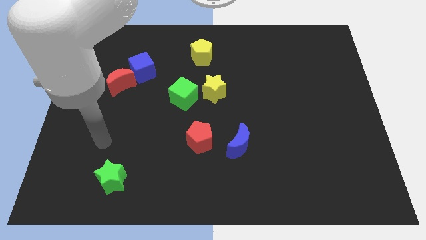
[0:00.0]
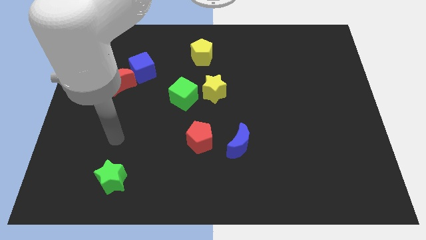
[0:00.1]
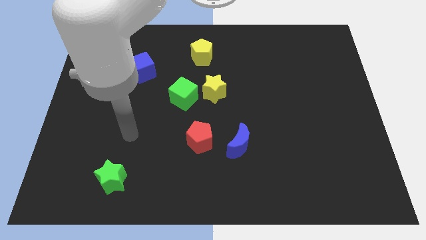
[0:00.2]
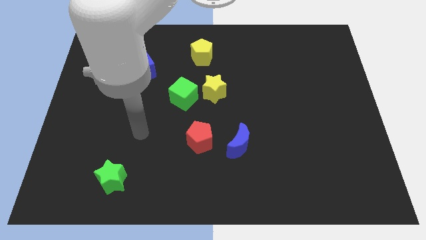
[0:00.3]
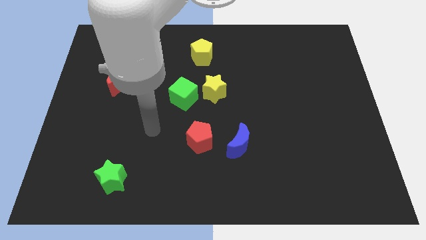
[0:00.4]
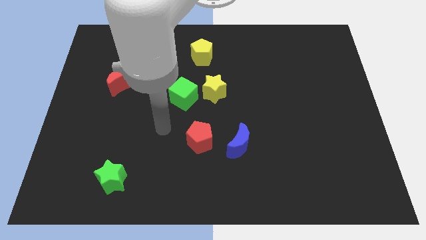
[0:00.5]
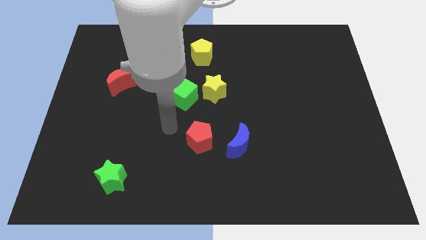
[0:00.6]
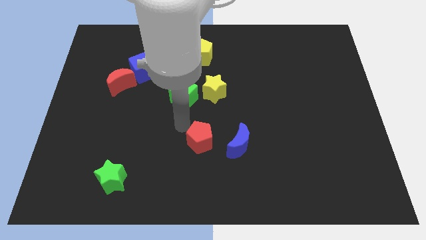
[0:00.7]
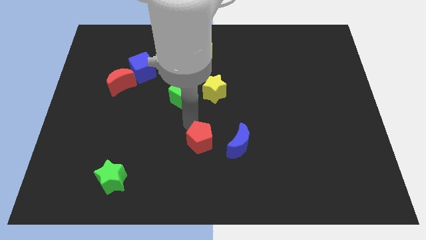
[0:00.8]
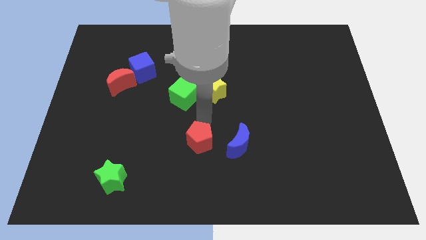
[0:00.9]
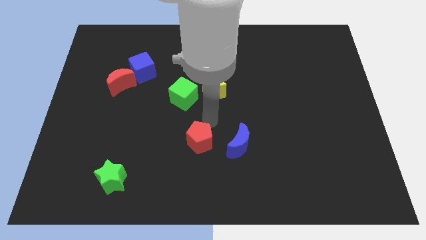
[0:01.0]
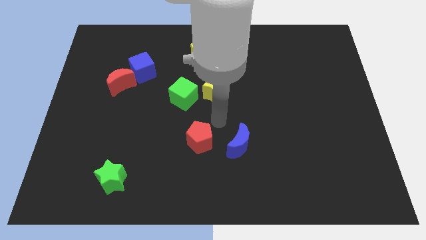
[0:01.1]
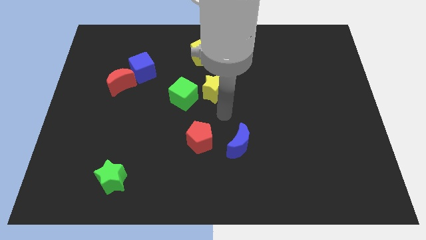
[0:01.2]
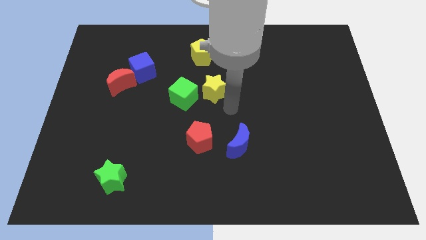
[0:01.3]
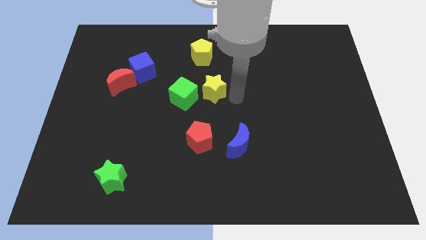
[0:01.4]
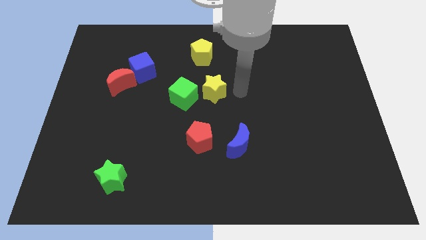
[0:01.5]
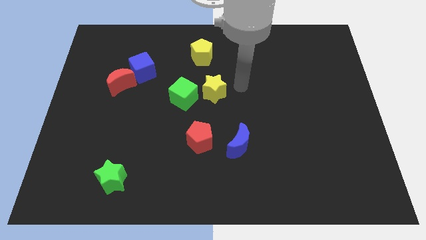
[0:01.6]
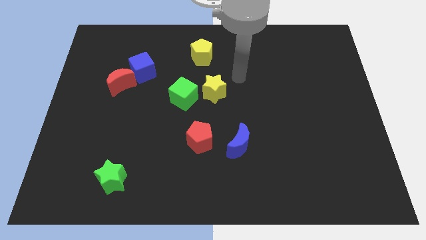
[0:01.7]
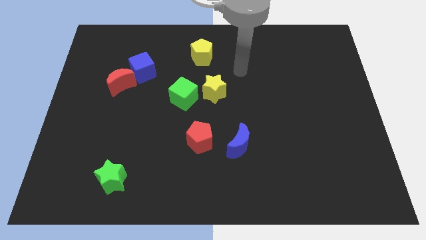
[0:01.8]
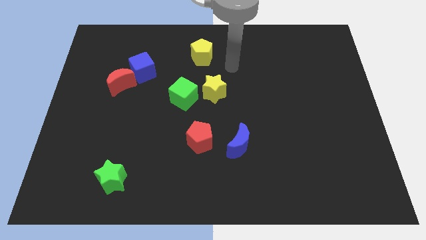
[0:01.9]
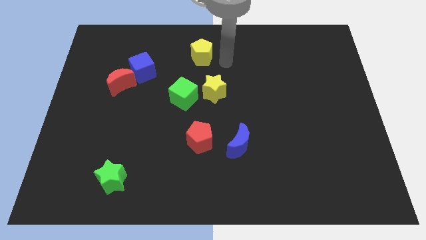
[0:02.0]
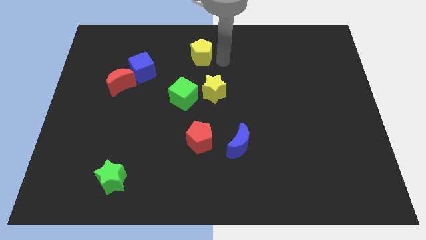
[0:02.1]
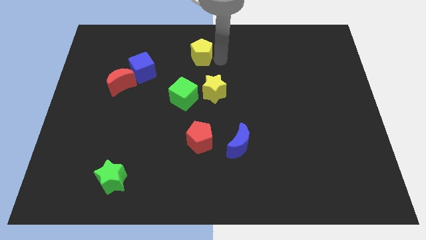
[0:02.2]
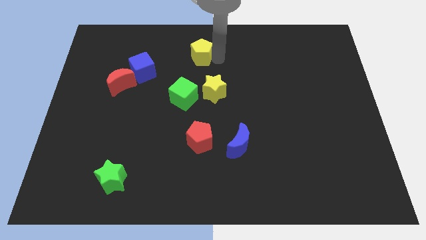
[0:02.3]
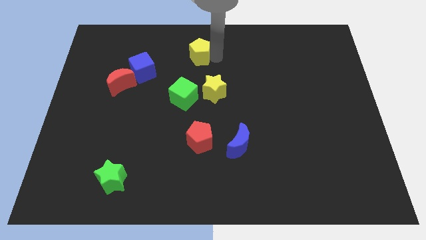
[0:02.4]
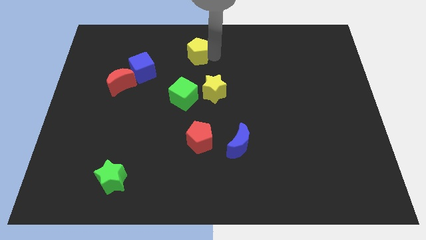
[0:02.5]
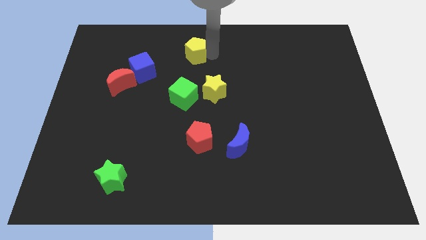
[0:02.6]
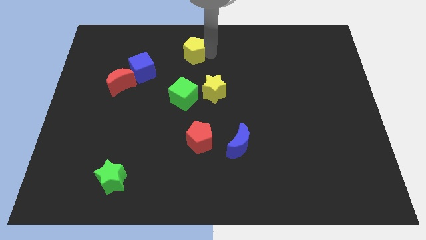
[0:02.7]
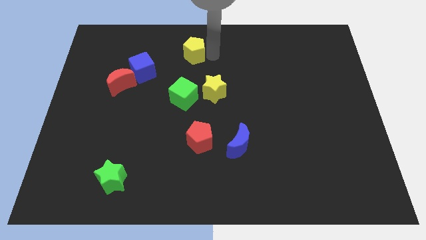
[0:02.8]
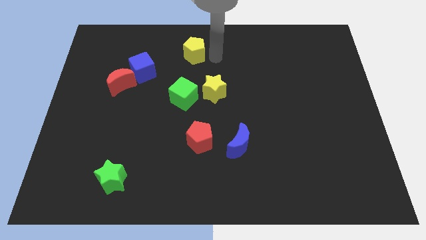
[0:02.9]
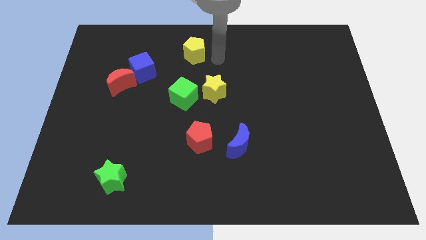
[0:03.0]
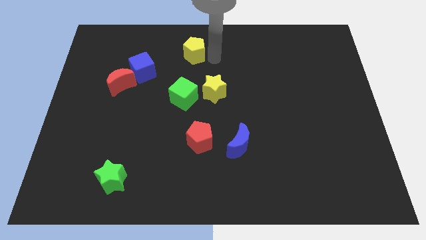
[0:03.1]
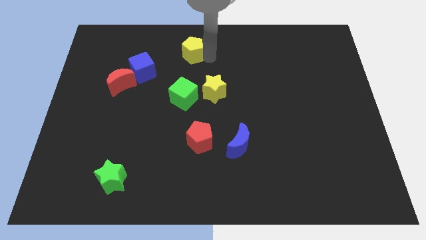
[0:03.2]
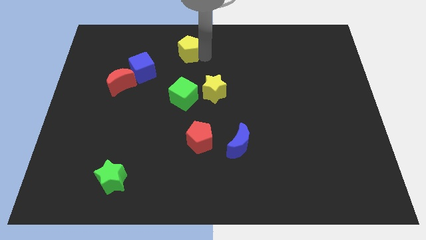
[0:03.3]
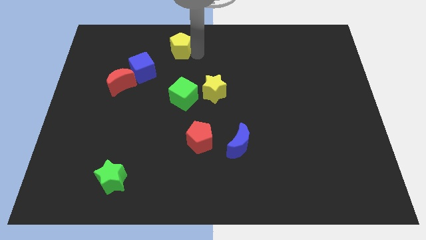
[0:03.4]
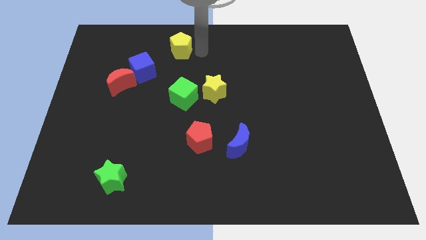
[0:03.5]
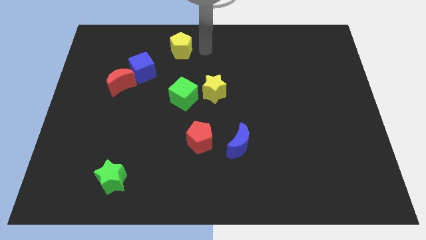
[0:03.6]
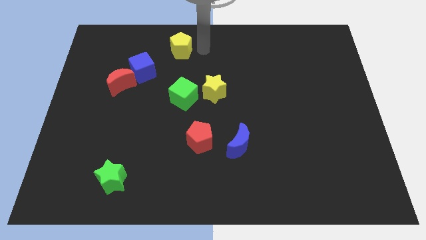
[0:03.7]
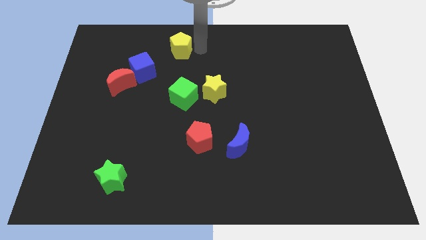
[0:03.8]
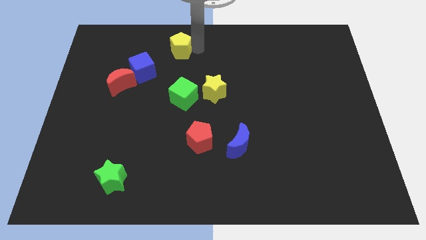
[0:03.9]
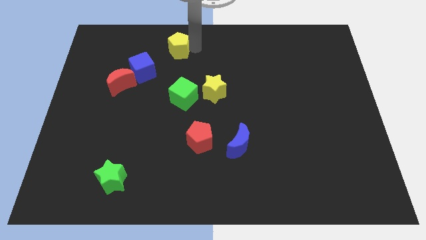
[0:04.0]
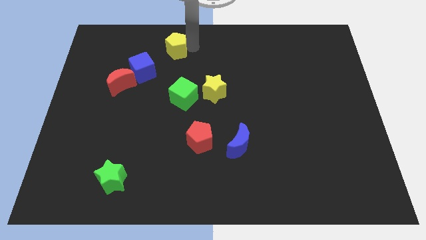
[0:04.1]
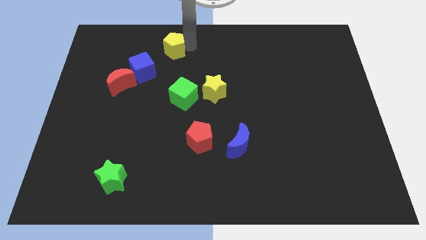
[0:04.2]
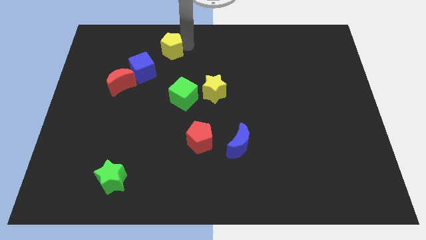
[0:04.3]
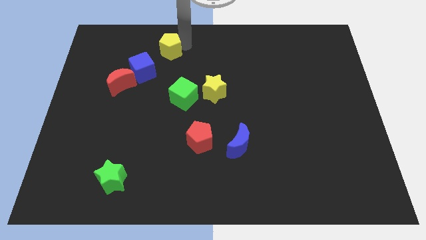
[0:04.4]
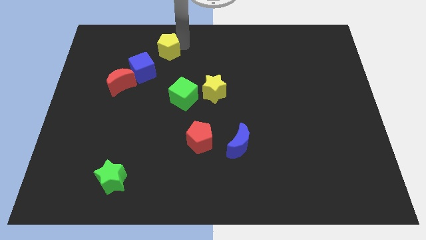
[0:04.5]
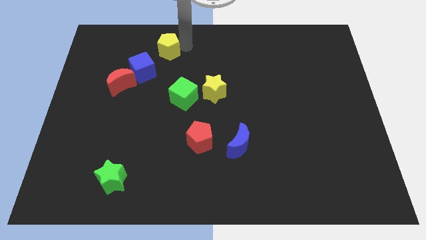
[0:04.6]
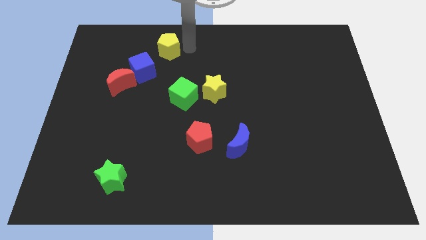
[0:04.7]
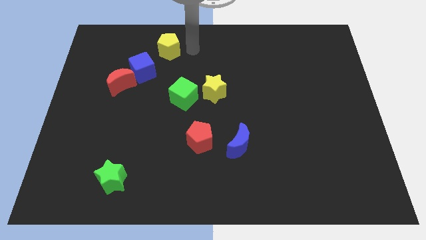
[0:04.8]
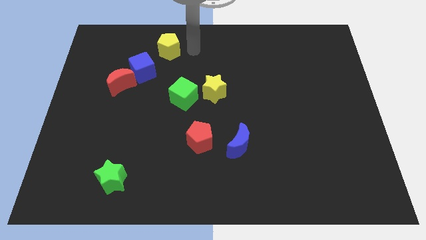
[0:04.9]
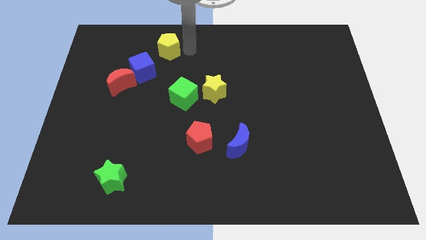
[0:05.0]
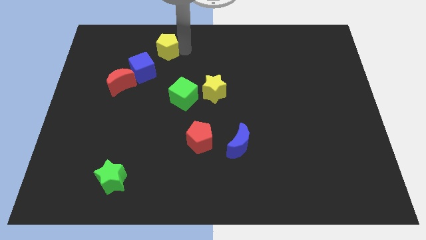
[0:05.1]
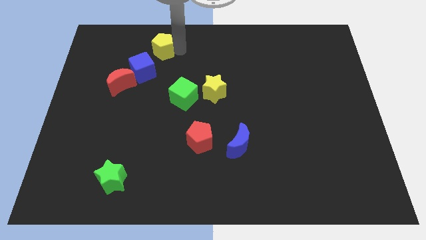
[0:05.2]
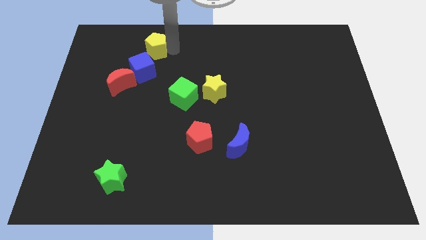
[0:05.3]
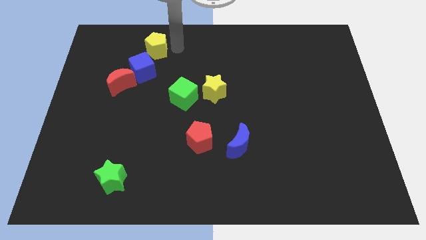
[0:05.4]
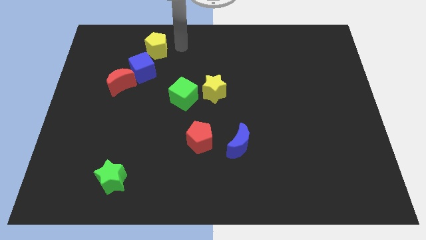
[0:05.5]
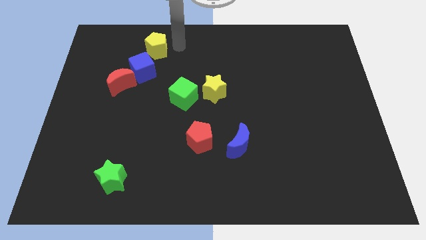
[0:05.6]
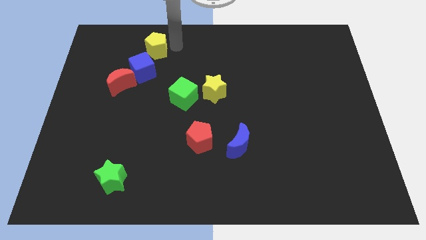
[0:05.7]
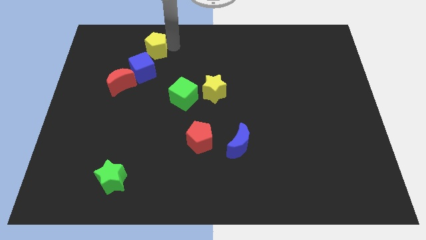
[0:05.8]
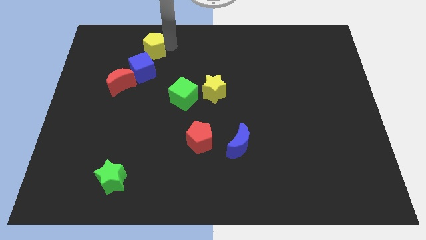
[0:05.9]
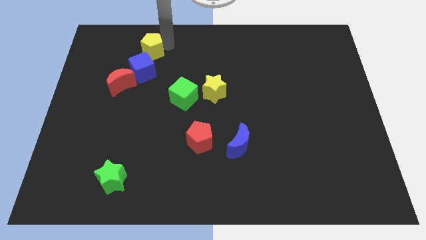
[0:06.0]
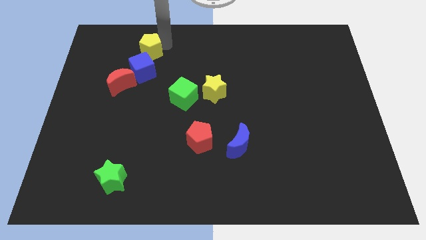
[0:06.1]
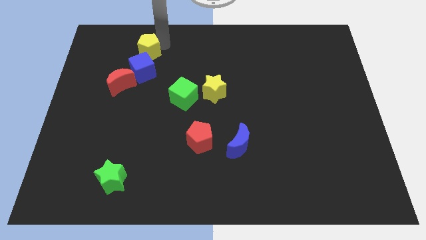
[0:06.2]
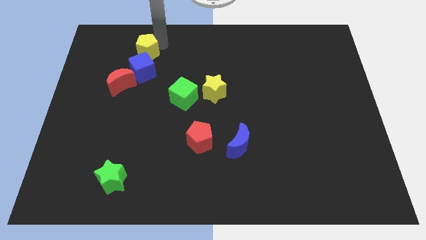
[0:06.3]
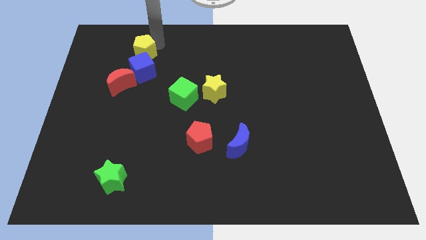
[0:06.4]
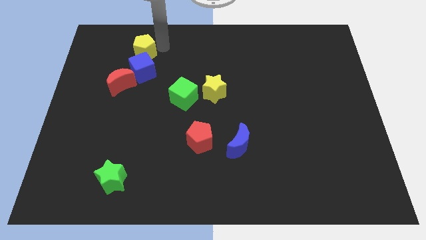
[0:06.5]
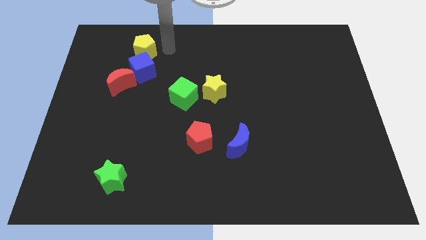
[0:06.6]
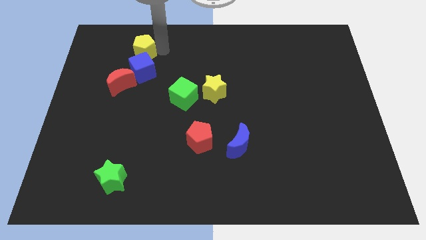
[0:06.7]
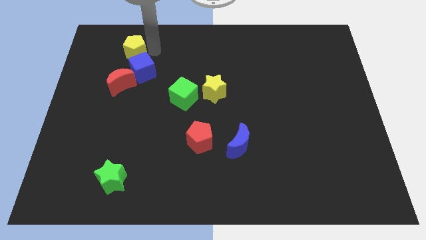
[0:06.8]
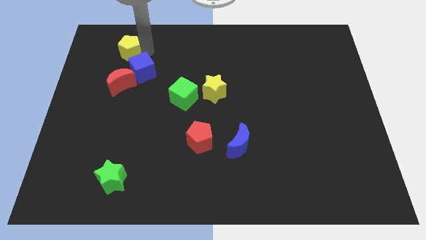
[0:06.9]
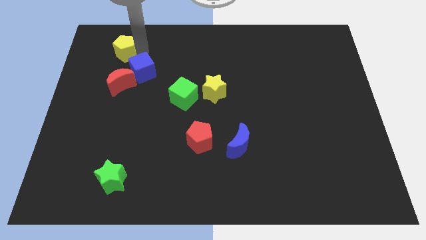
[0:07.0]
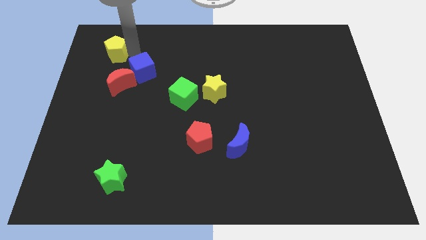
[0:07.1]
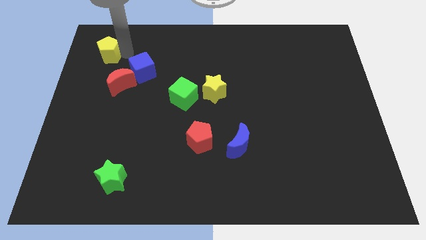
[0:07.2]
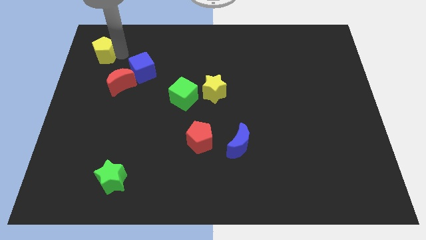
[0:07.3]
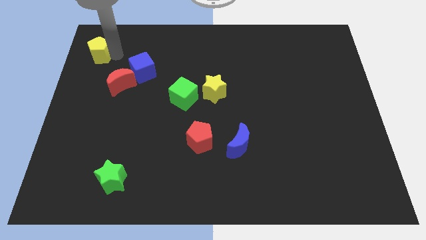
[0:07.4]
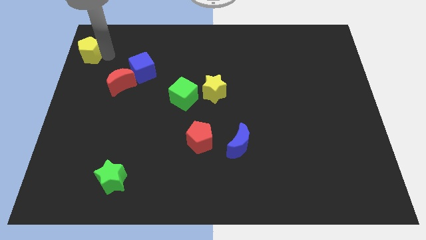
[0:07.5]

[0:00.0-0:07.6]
push the yellow pentagon to the top left of the board
